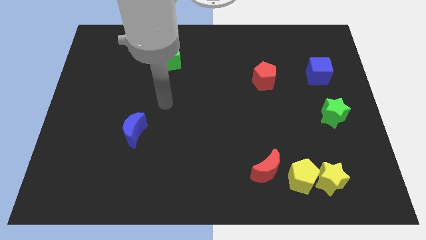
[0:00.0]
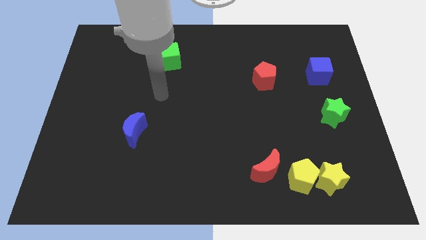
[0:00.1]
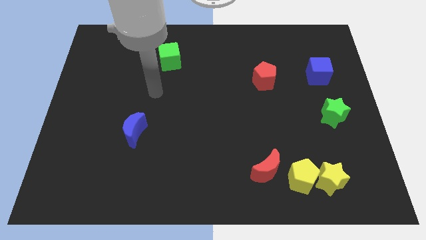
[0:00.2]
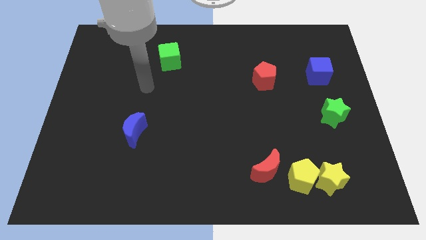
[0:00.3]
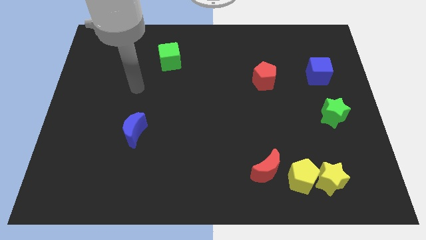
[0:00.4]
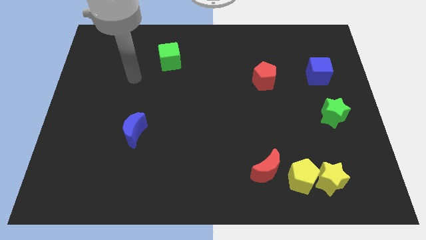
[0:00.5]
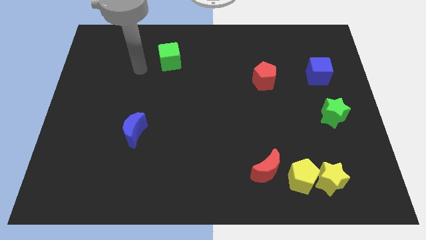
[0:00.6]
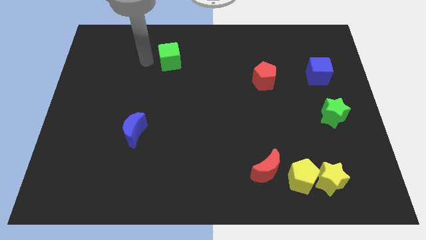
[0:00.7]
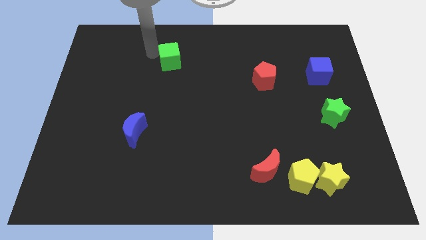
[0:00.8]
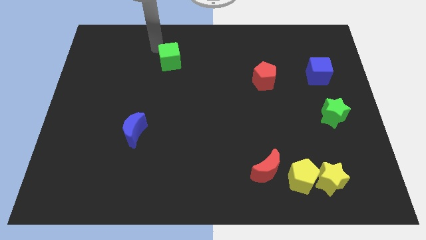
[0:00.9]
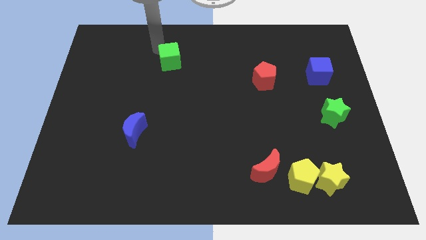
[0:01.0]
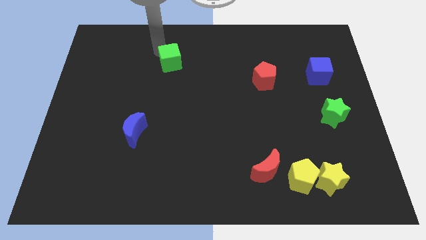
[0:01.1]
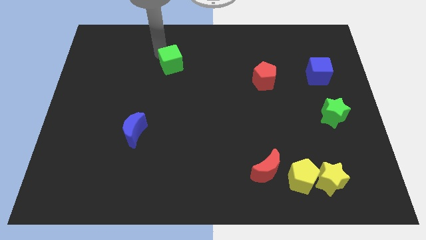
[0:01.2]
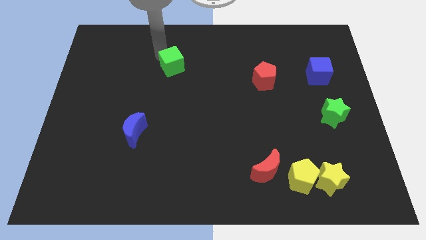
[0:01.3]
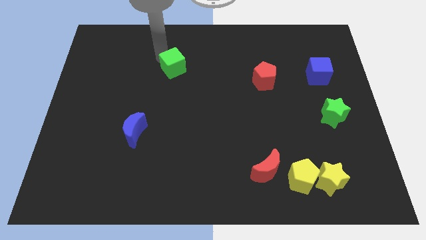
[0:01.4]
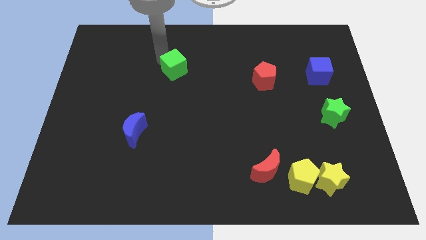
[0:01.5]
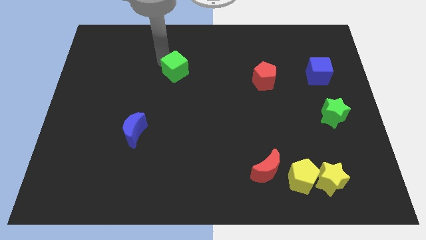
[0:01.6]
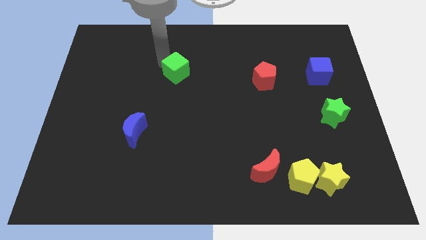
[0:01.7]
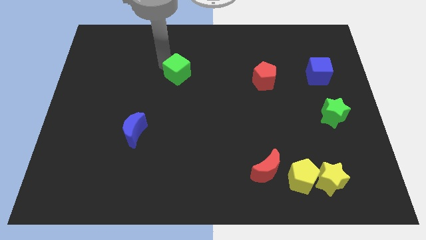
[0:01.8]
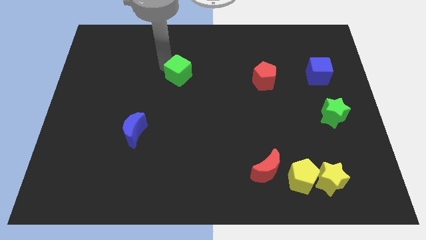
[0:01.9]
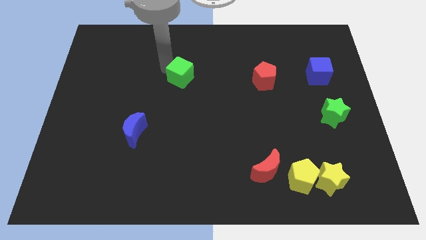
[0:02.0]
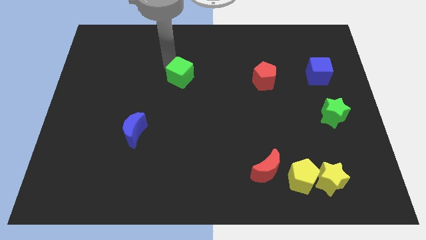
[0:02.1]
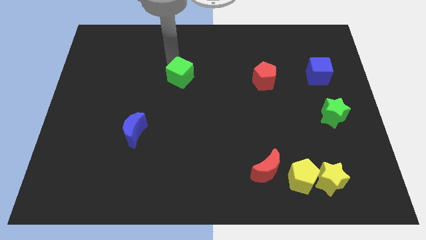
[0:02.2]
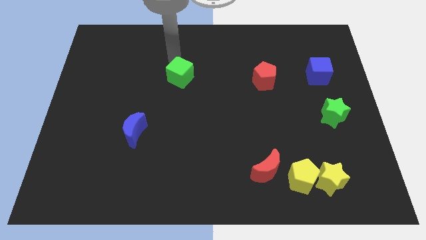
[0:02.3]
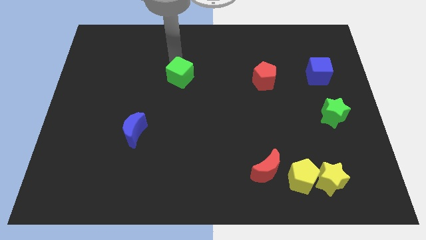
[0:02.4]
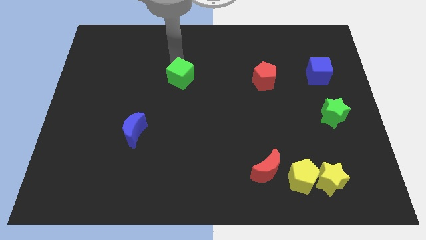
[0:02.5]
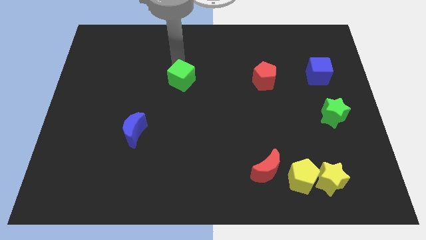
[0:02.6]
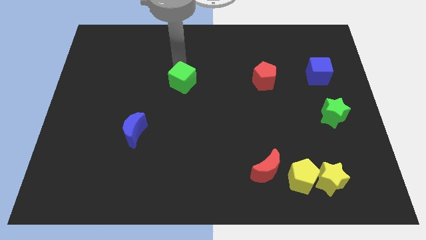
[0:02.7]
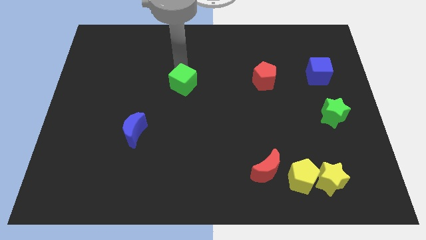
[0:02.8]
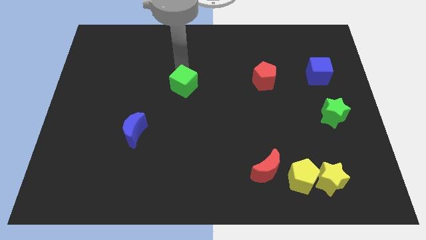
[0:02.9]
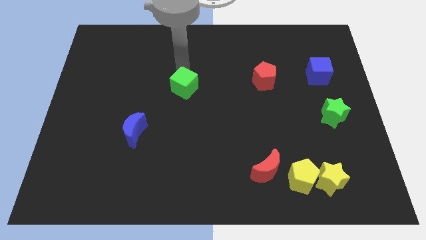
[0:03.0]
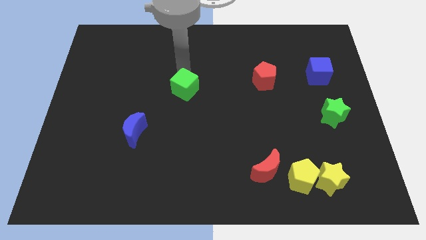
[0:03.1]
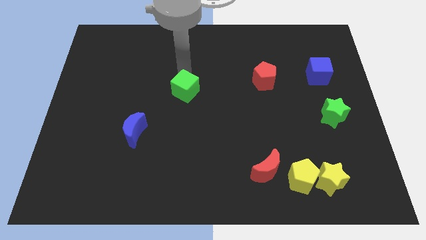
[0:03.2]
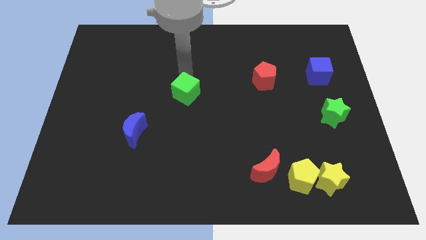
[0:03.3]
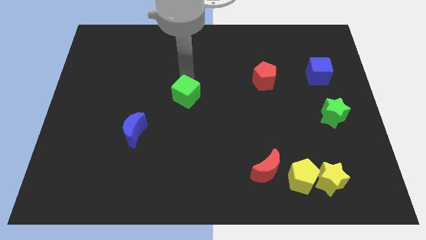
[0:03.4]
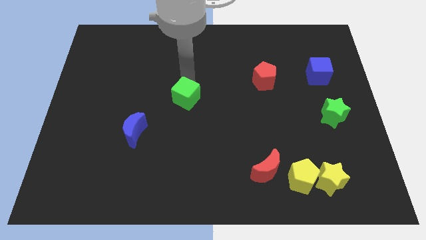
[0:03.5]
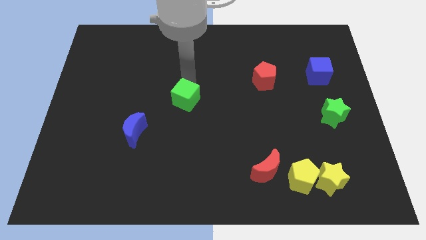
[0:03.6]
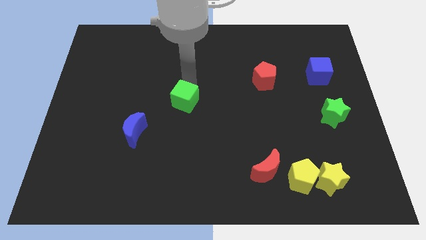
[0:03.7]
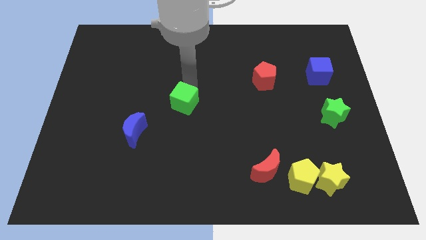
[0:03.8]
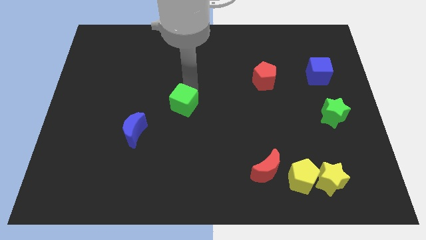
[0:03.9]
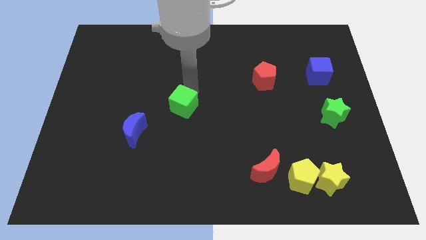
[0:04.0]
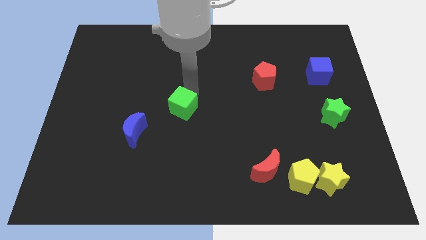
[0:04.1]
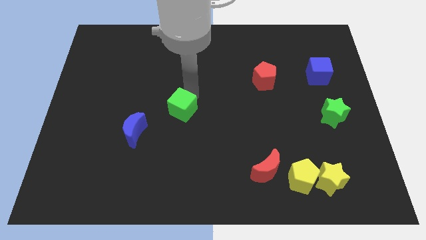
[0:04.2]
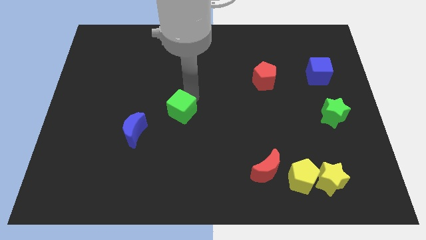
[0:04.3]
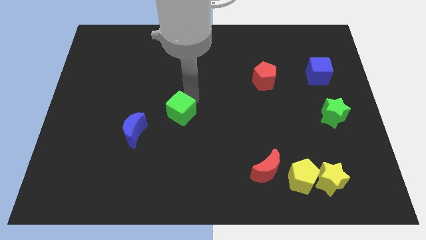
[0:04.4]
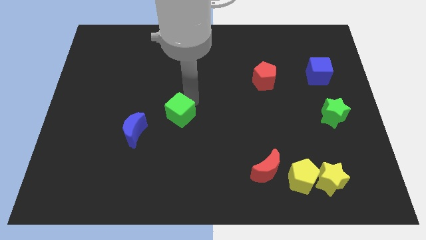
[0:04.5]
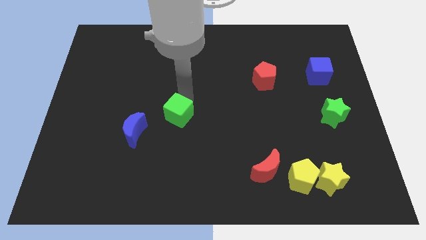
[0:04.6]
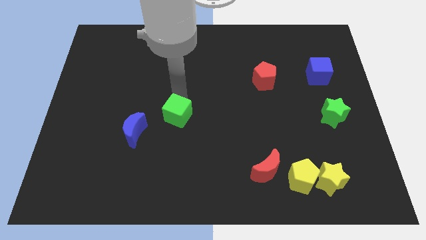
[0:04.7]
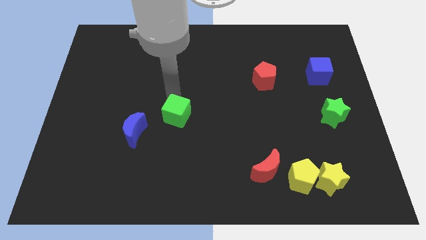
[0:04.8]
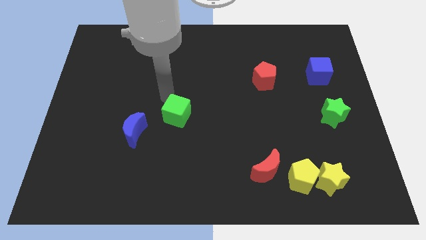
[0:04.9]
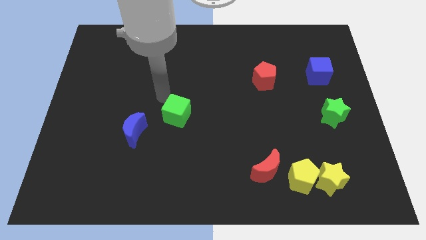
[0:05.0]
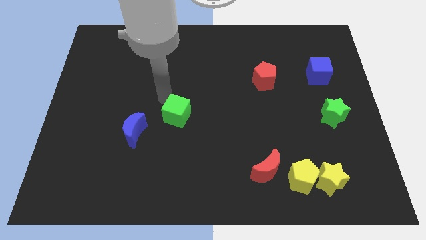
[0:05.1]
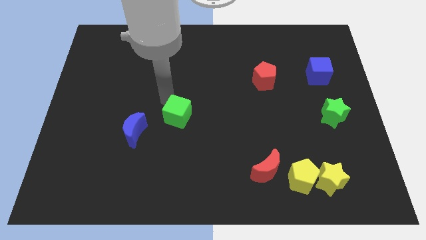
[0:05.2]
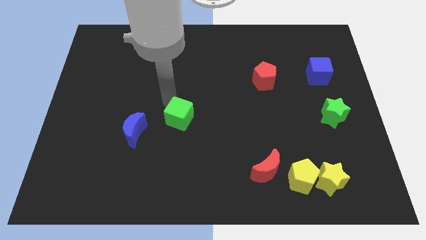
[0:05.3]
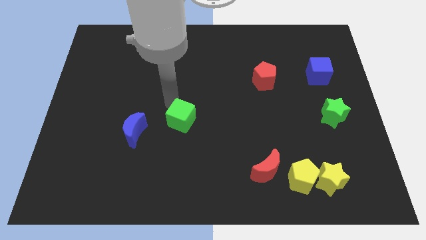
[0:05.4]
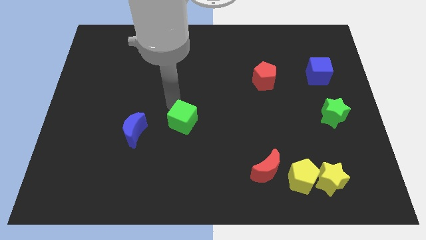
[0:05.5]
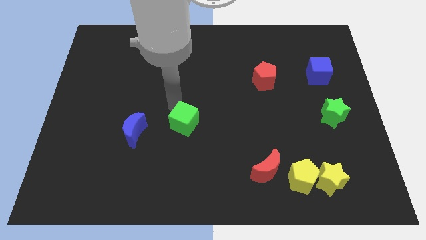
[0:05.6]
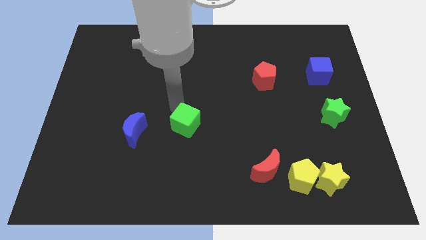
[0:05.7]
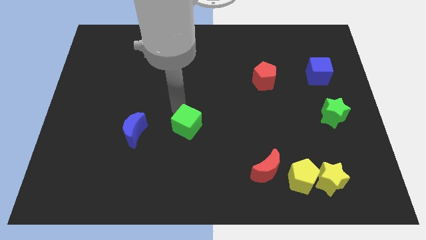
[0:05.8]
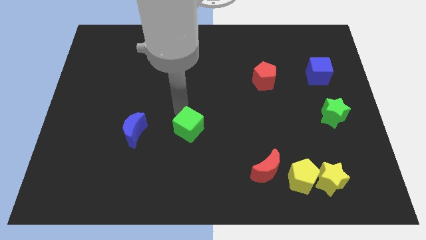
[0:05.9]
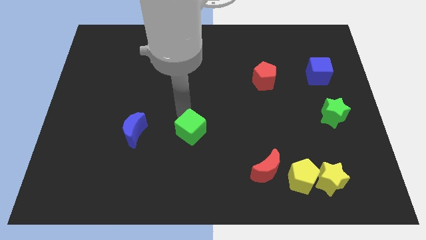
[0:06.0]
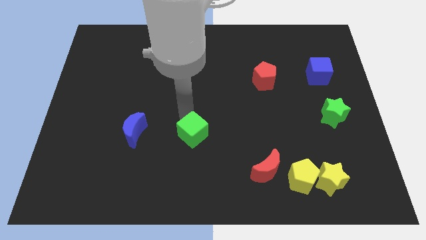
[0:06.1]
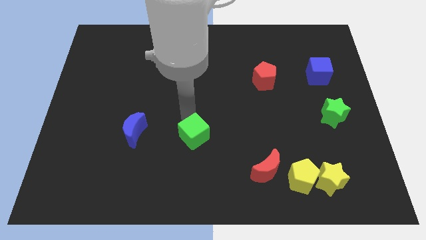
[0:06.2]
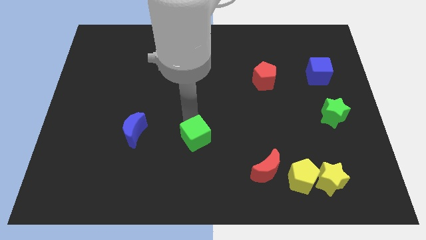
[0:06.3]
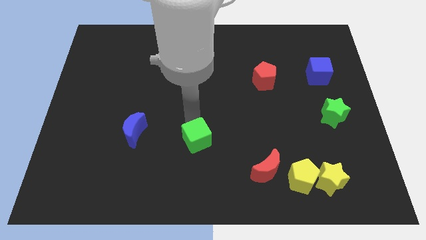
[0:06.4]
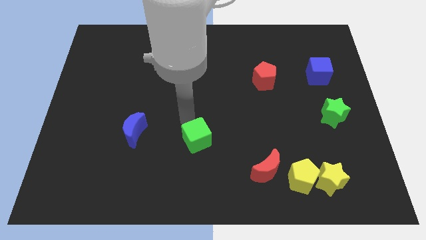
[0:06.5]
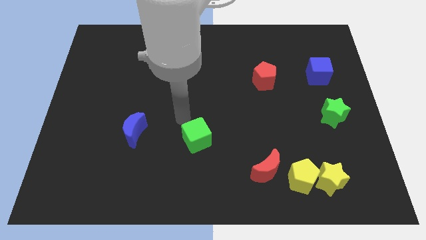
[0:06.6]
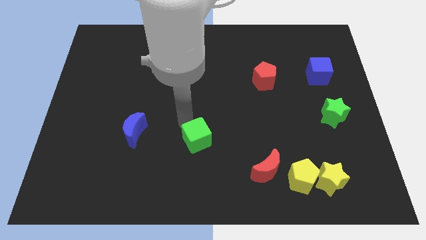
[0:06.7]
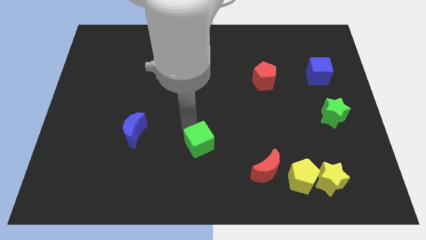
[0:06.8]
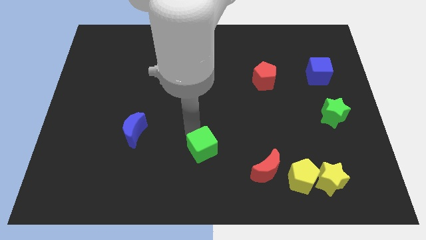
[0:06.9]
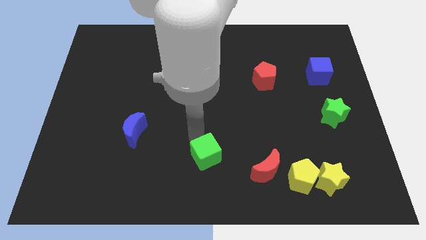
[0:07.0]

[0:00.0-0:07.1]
move the green cube to the left of the red moon
